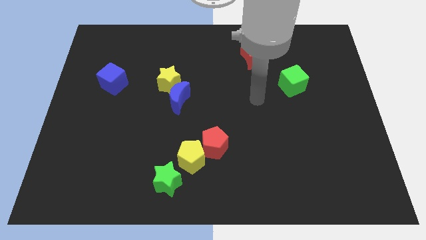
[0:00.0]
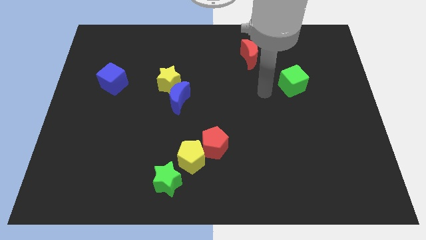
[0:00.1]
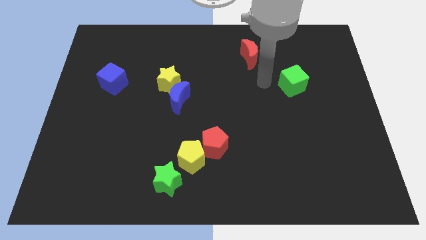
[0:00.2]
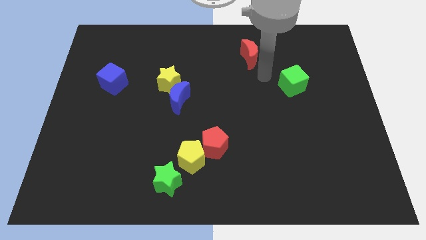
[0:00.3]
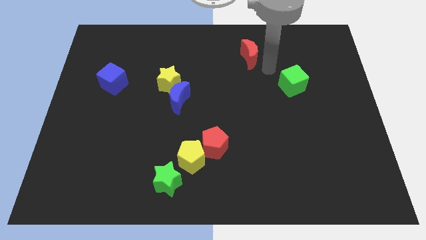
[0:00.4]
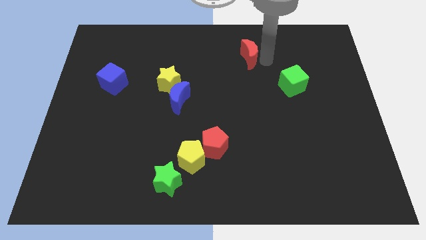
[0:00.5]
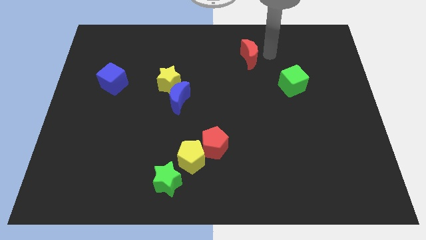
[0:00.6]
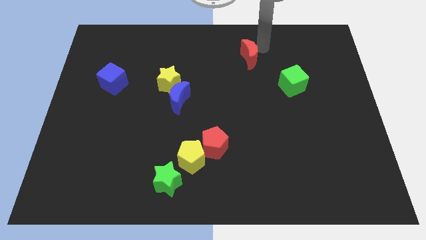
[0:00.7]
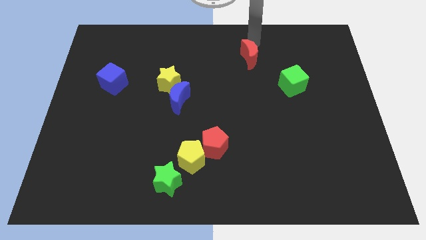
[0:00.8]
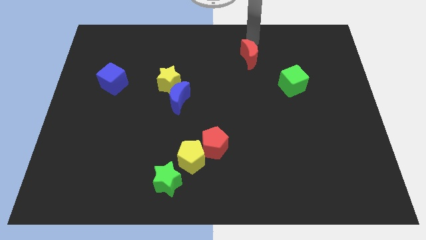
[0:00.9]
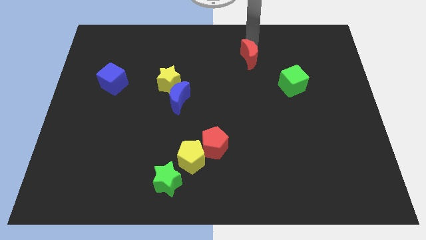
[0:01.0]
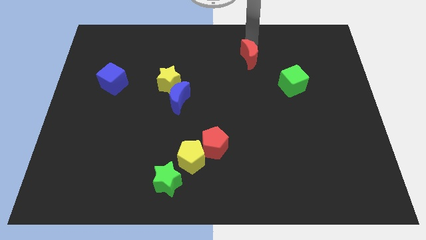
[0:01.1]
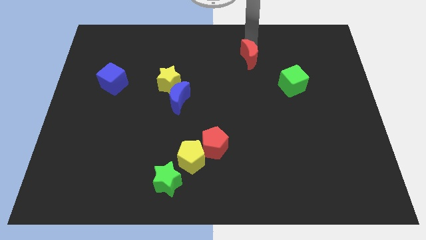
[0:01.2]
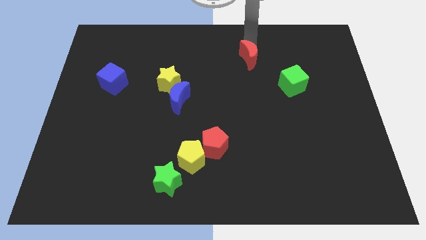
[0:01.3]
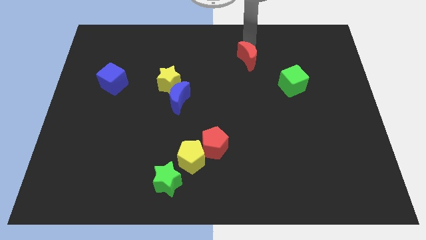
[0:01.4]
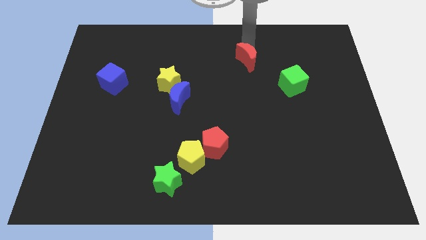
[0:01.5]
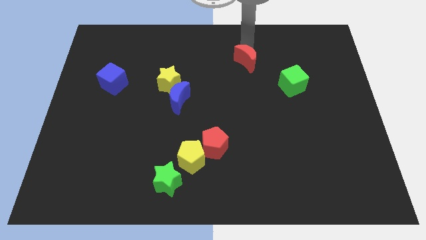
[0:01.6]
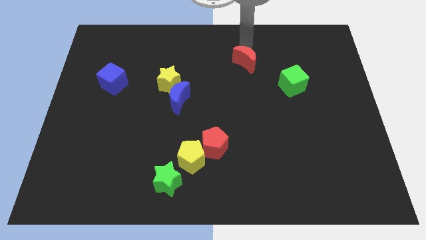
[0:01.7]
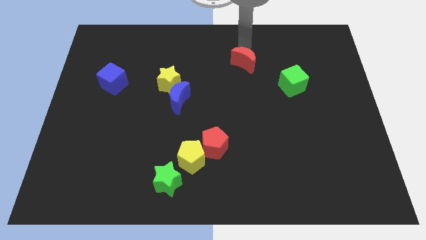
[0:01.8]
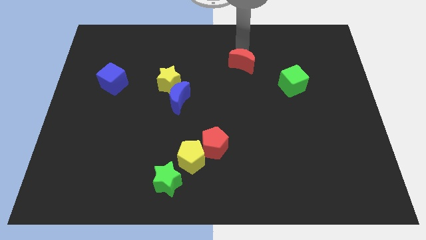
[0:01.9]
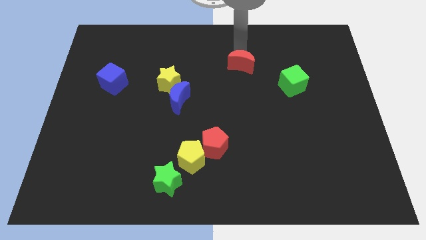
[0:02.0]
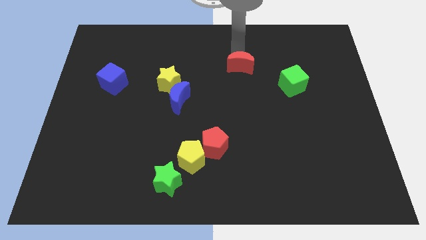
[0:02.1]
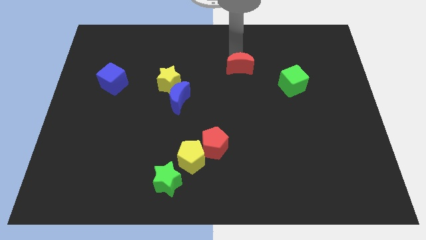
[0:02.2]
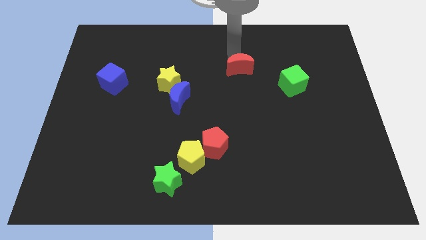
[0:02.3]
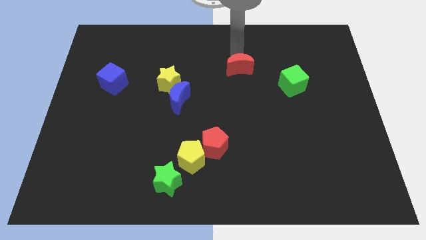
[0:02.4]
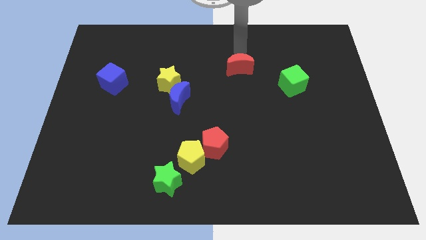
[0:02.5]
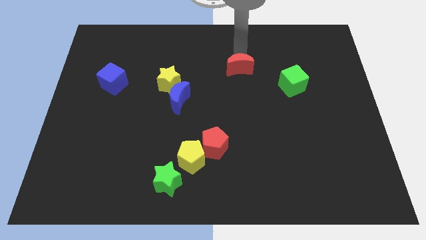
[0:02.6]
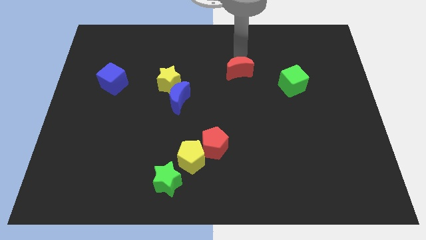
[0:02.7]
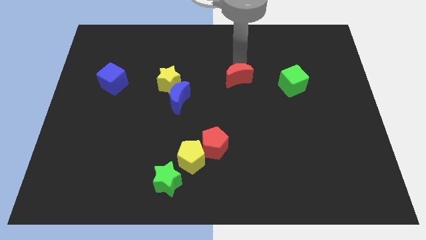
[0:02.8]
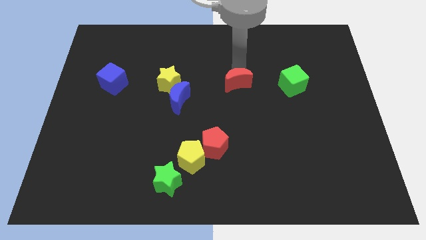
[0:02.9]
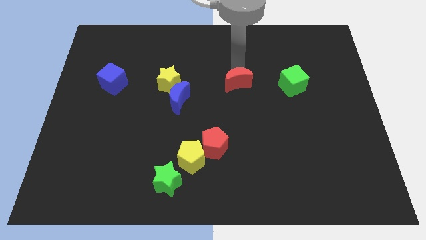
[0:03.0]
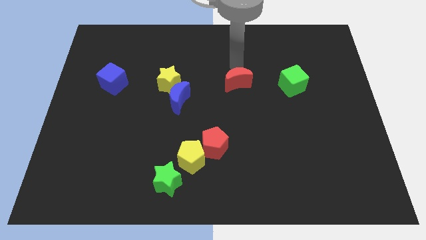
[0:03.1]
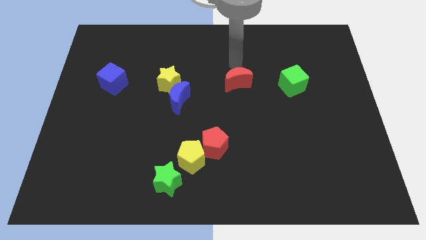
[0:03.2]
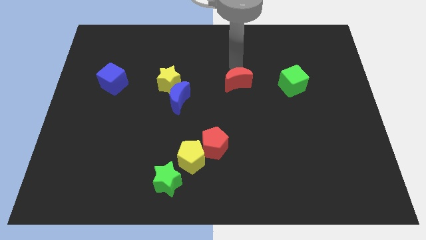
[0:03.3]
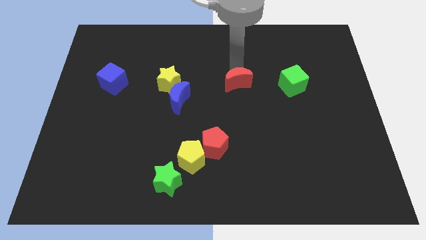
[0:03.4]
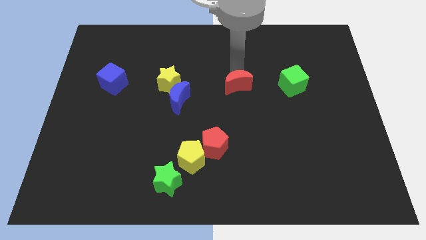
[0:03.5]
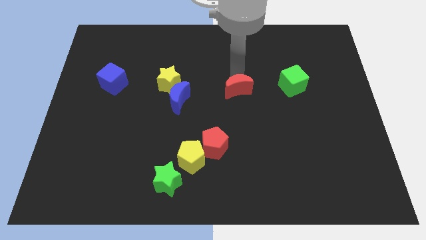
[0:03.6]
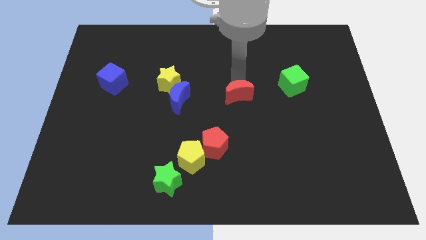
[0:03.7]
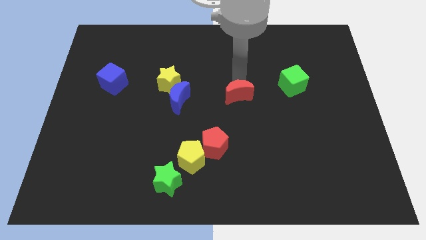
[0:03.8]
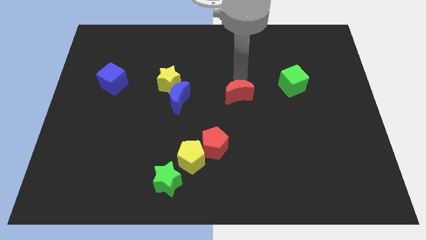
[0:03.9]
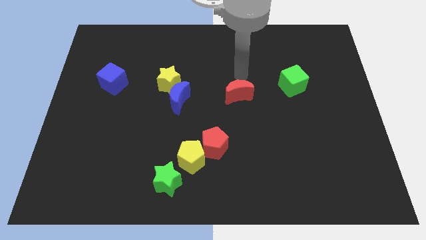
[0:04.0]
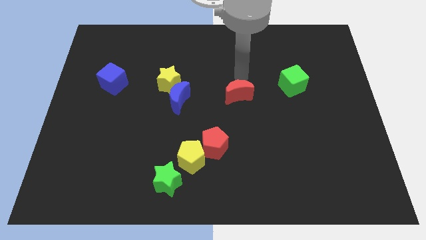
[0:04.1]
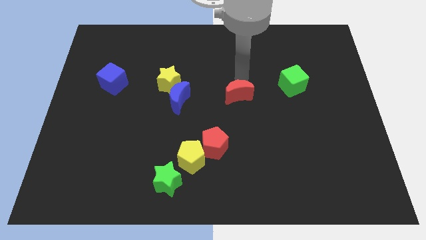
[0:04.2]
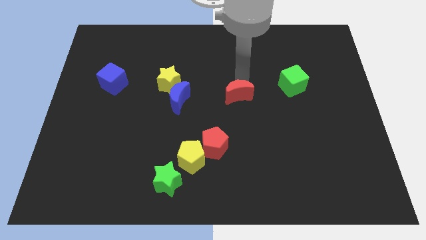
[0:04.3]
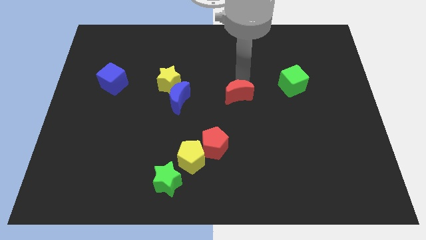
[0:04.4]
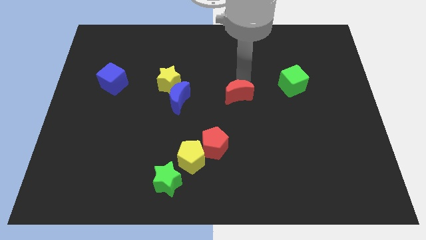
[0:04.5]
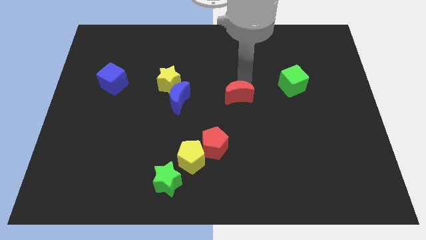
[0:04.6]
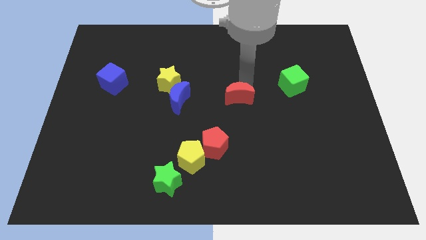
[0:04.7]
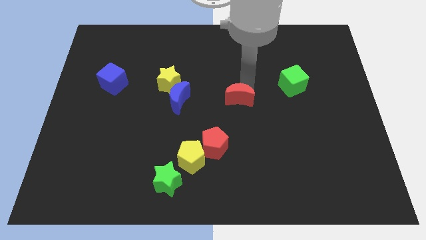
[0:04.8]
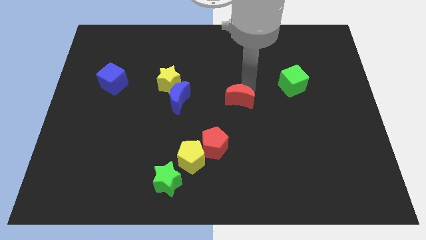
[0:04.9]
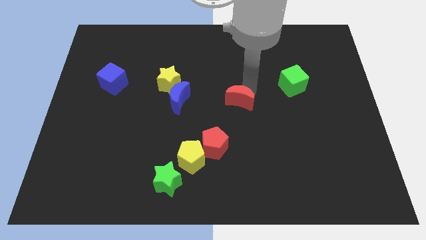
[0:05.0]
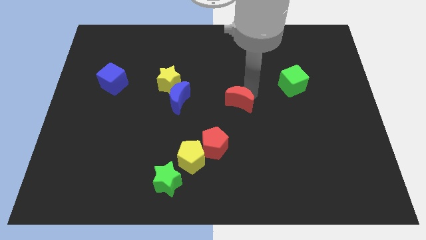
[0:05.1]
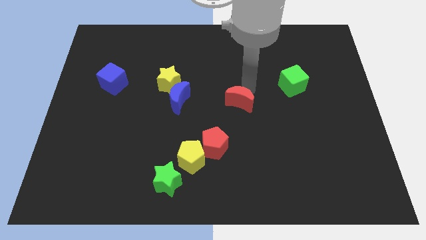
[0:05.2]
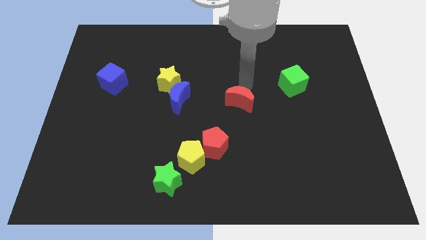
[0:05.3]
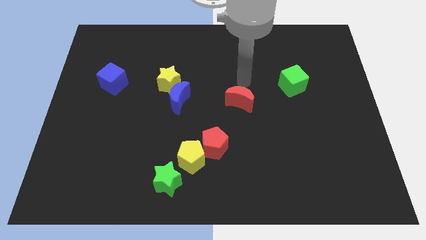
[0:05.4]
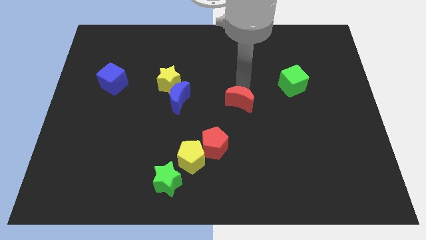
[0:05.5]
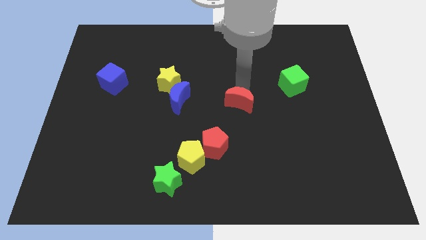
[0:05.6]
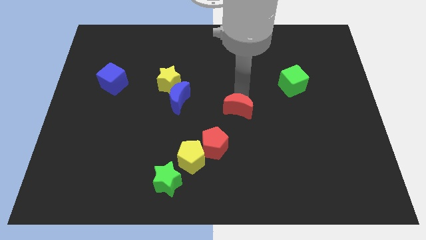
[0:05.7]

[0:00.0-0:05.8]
push the red moon diagonally up and to the right of the red pentagon

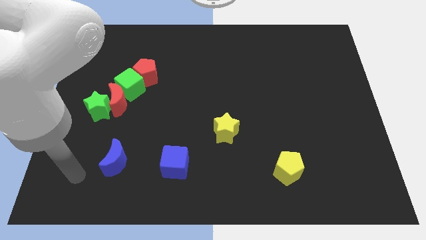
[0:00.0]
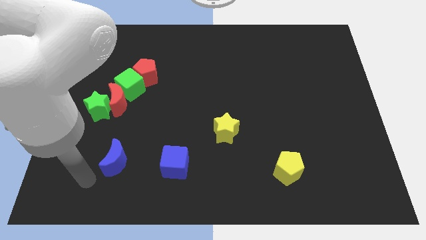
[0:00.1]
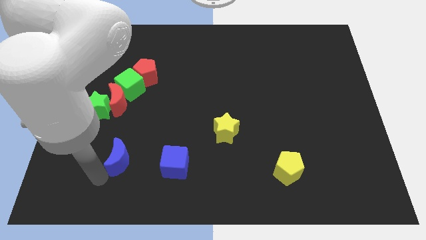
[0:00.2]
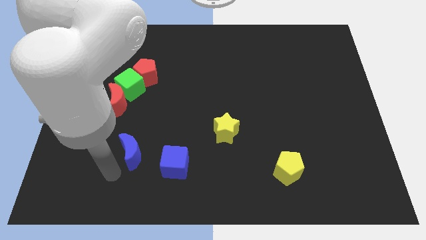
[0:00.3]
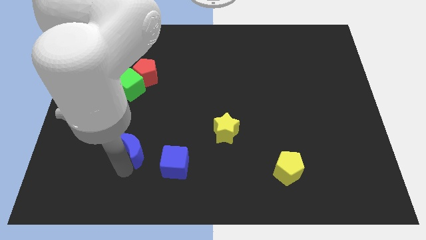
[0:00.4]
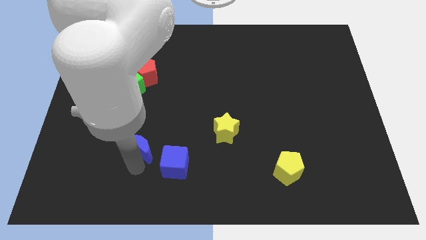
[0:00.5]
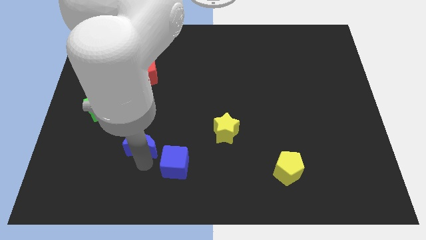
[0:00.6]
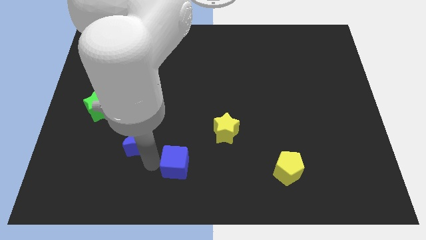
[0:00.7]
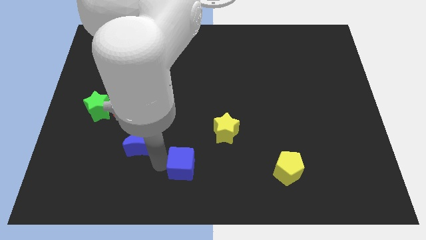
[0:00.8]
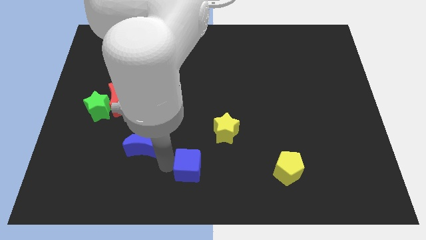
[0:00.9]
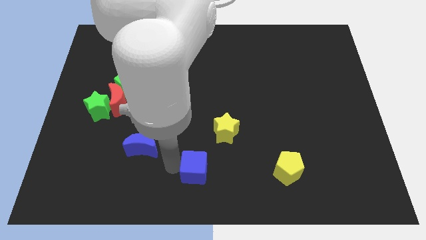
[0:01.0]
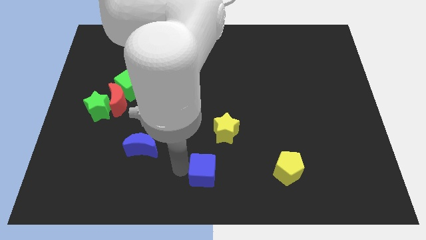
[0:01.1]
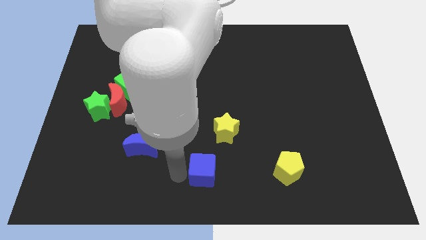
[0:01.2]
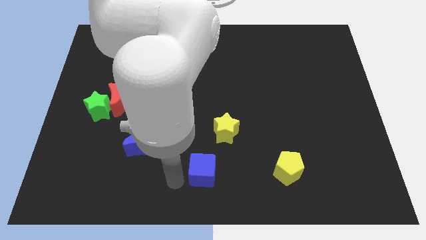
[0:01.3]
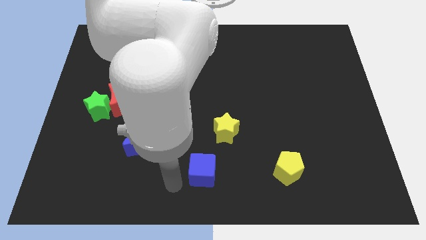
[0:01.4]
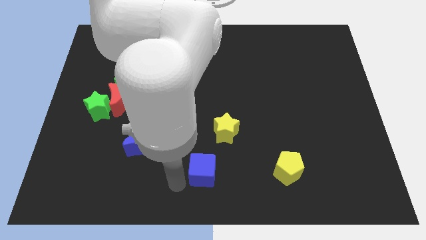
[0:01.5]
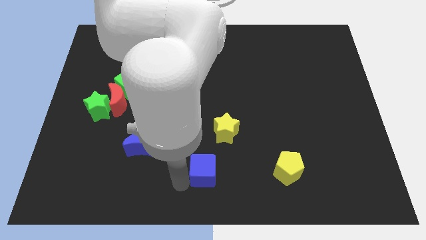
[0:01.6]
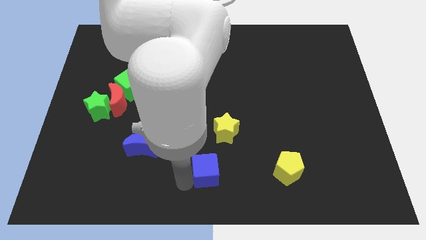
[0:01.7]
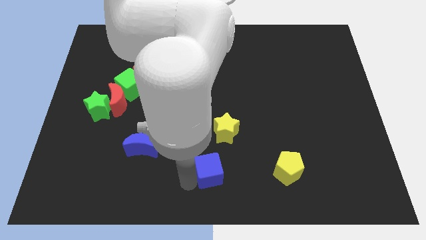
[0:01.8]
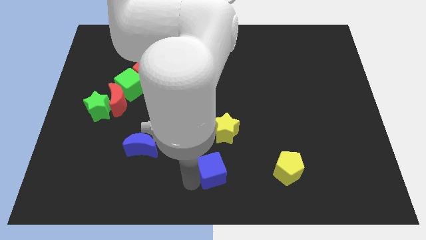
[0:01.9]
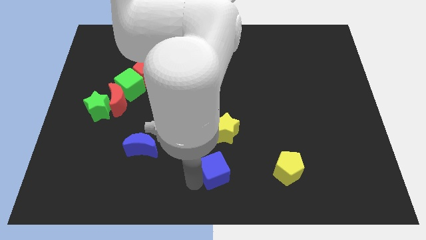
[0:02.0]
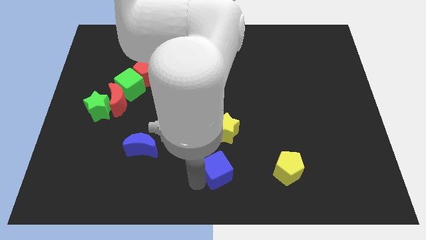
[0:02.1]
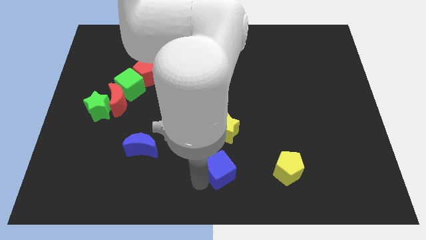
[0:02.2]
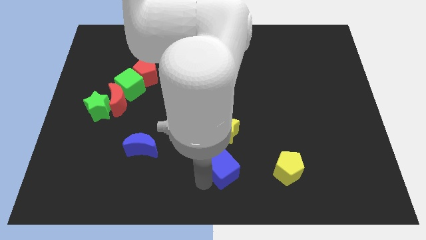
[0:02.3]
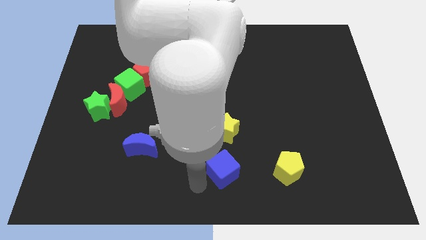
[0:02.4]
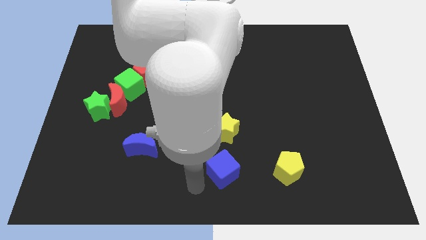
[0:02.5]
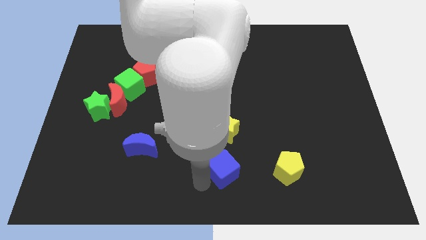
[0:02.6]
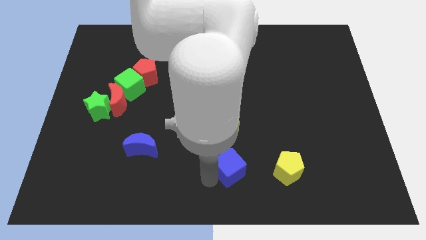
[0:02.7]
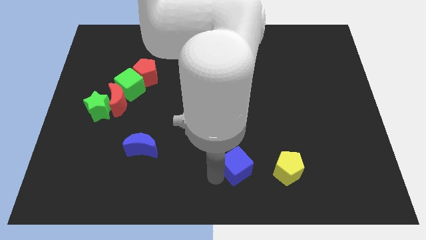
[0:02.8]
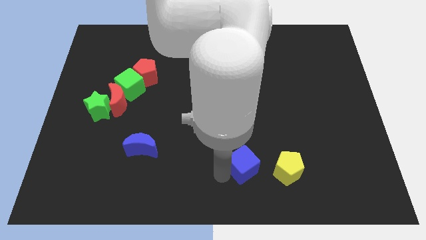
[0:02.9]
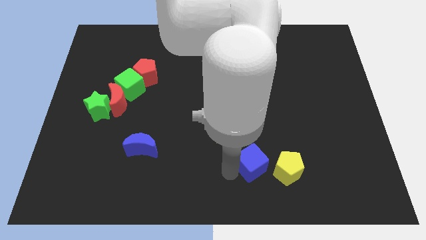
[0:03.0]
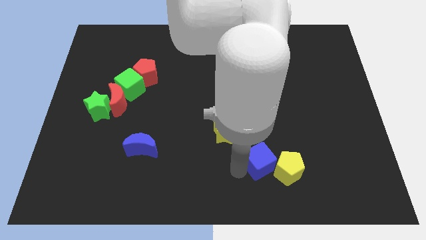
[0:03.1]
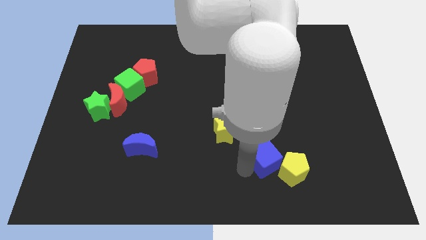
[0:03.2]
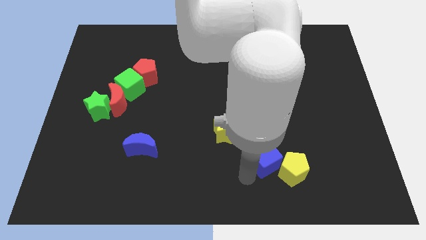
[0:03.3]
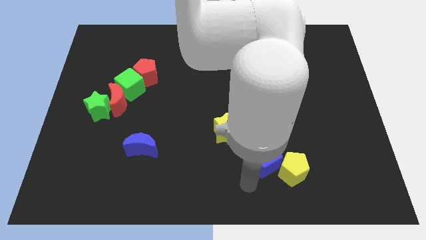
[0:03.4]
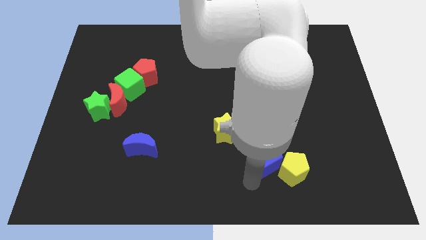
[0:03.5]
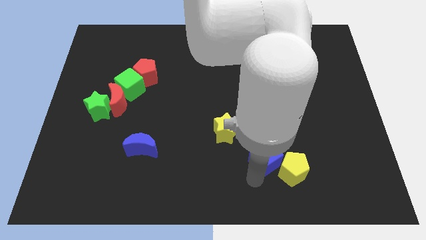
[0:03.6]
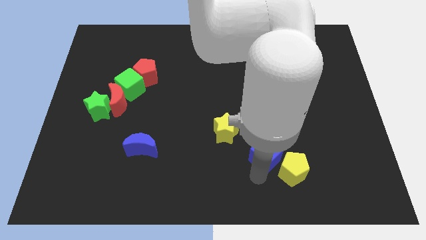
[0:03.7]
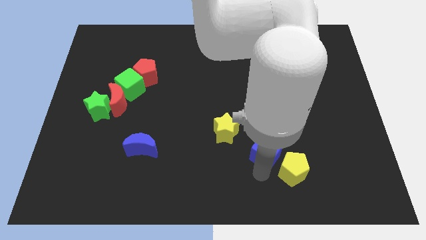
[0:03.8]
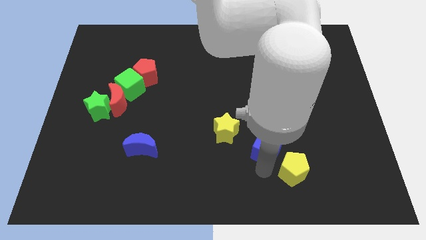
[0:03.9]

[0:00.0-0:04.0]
push the blue cube to the top of the yellow pentagon
